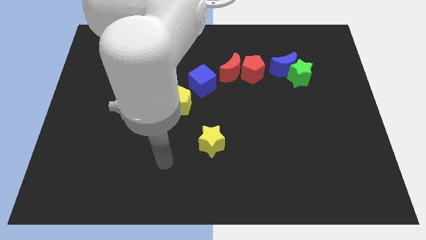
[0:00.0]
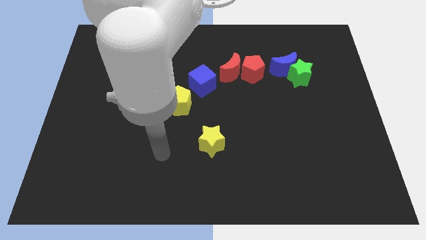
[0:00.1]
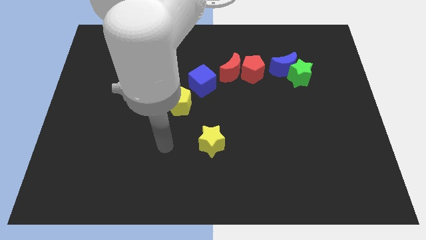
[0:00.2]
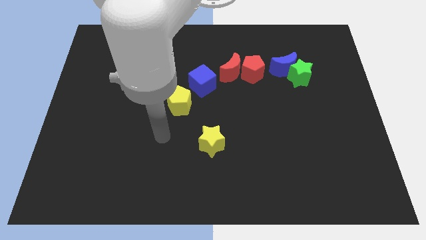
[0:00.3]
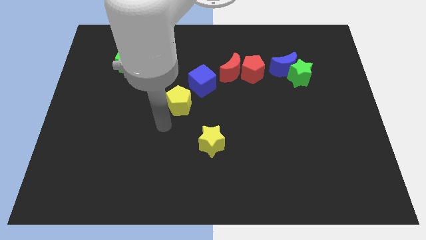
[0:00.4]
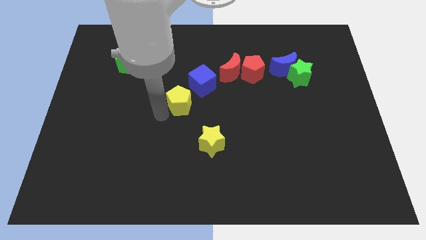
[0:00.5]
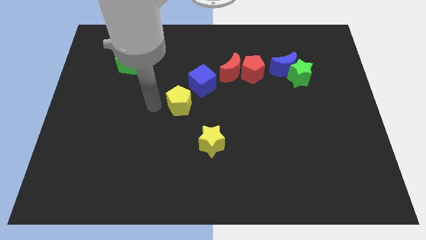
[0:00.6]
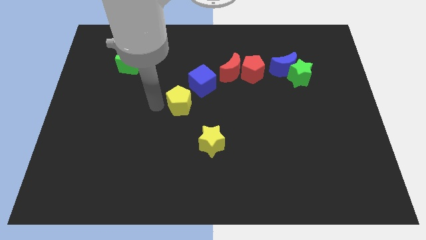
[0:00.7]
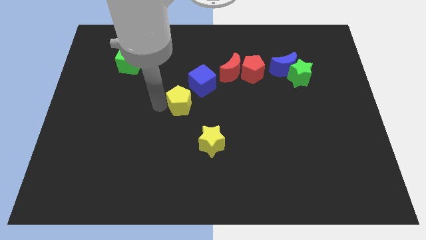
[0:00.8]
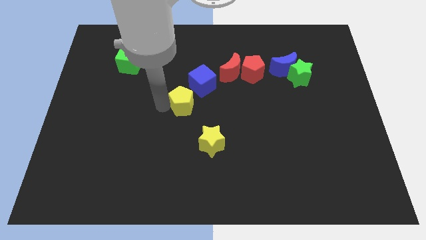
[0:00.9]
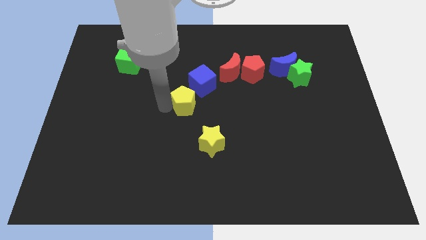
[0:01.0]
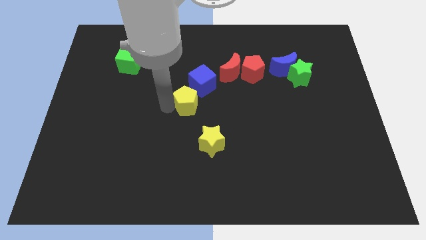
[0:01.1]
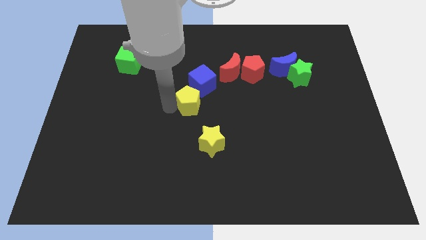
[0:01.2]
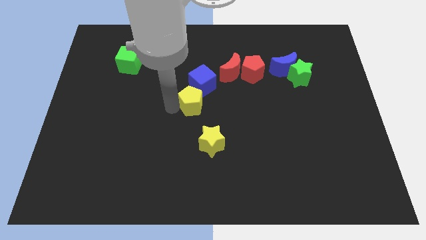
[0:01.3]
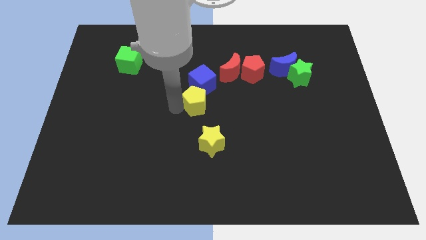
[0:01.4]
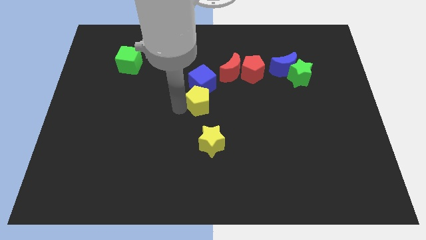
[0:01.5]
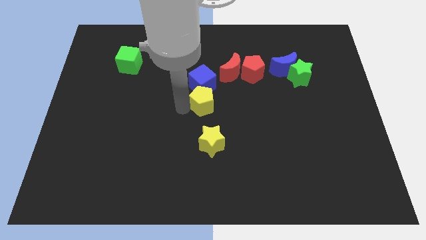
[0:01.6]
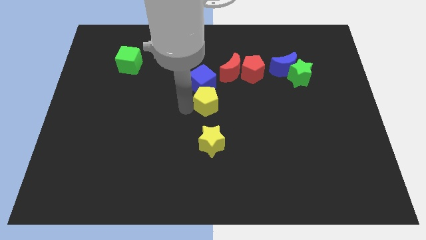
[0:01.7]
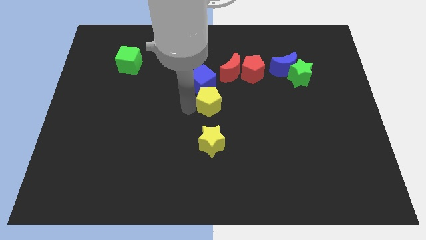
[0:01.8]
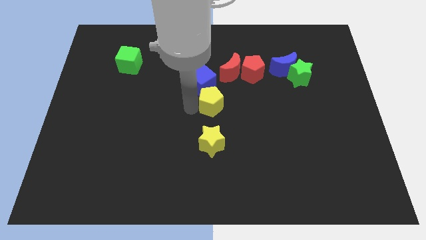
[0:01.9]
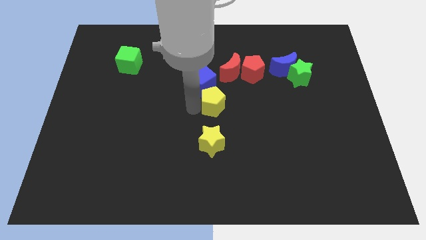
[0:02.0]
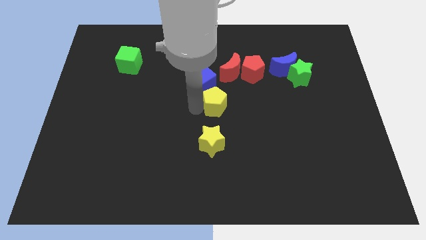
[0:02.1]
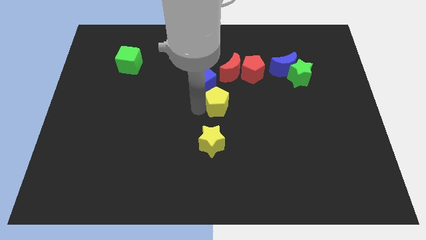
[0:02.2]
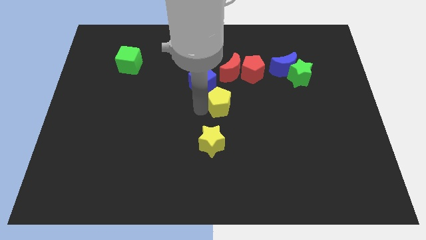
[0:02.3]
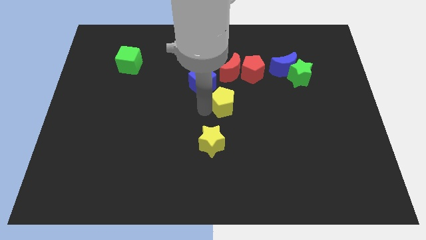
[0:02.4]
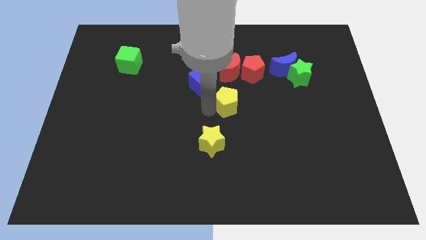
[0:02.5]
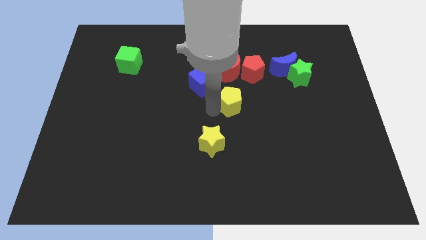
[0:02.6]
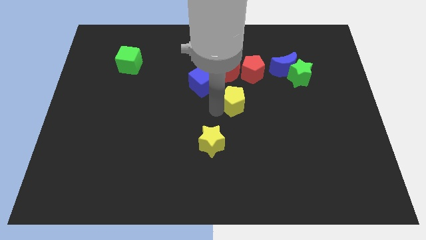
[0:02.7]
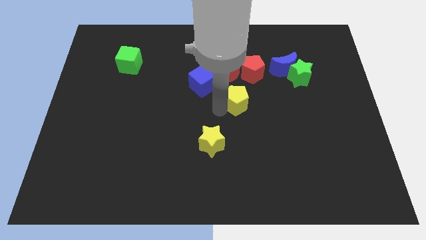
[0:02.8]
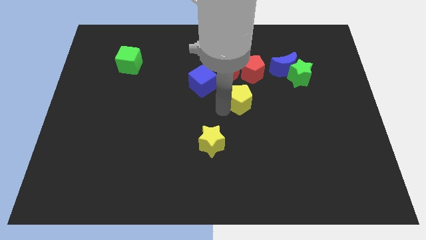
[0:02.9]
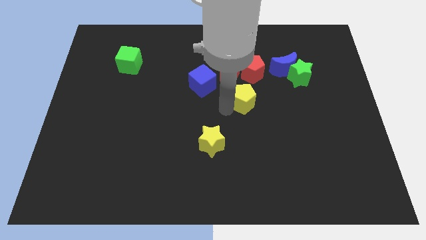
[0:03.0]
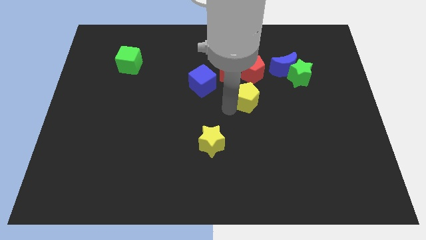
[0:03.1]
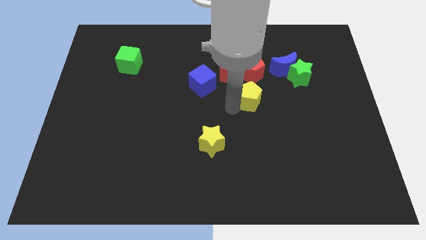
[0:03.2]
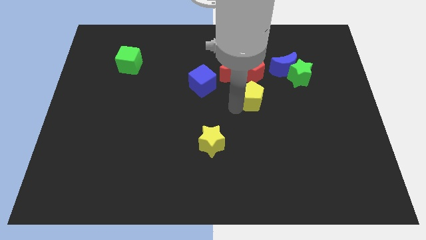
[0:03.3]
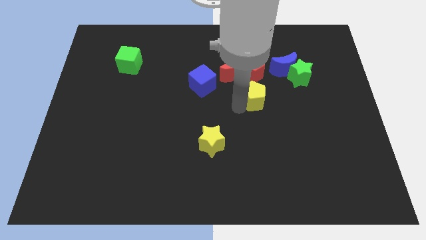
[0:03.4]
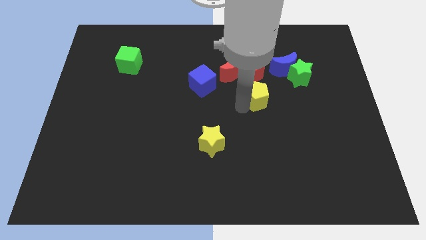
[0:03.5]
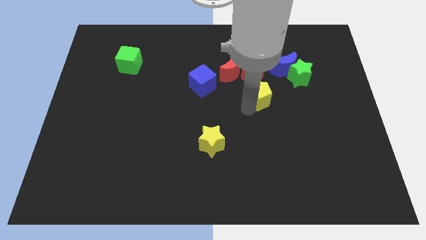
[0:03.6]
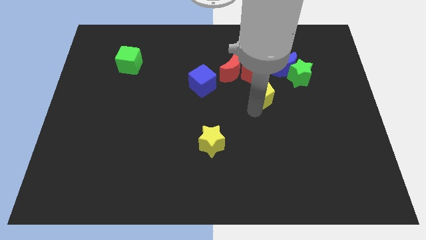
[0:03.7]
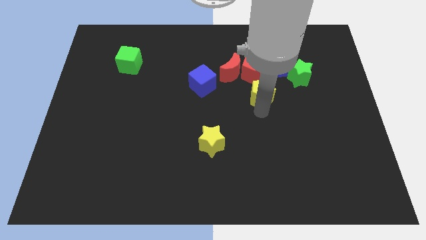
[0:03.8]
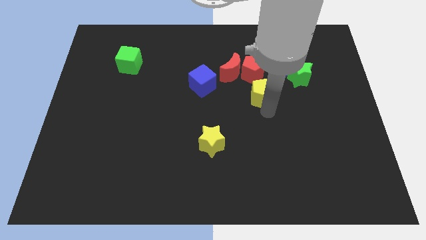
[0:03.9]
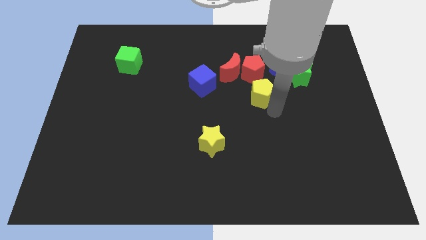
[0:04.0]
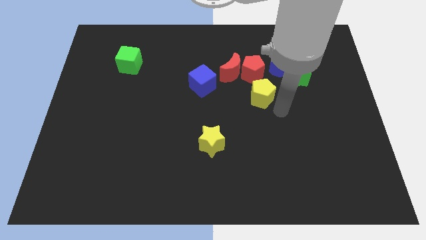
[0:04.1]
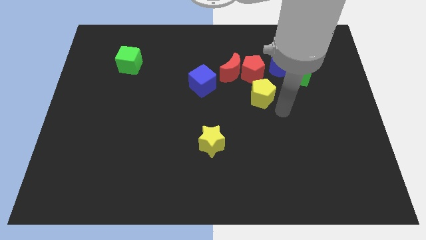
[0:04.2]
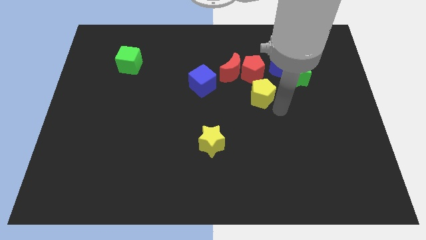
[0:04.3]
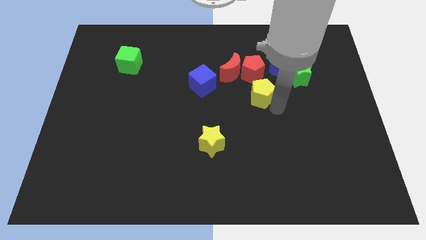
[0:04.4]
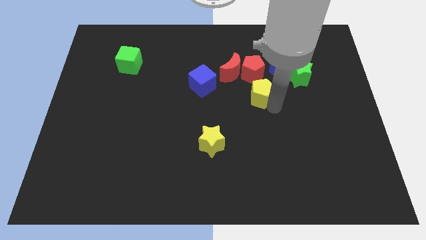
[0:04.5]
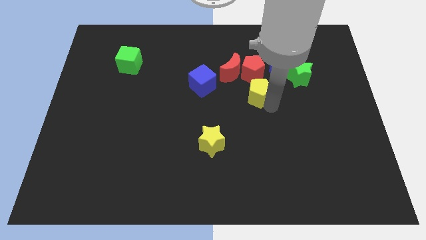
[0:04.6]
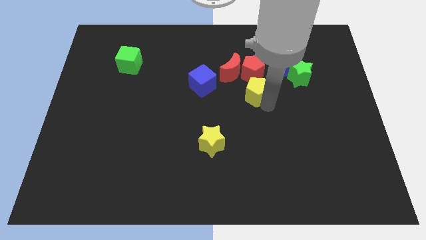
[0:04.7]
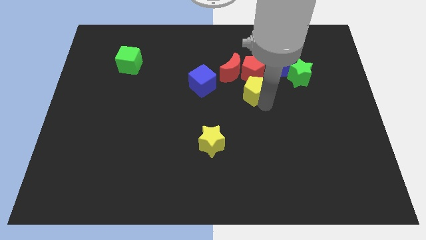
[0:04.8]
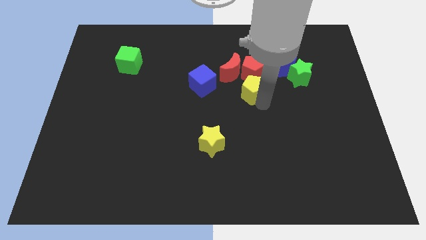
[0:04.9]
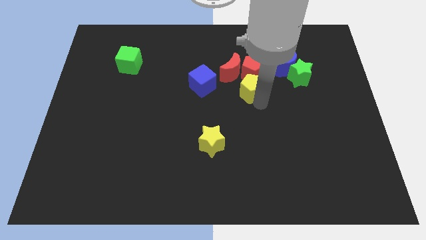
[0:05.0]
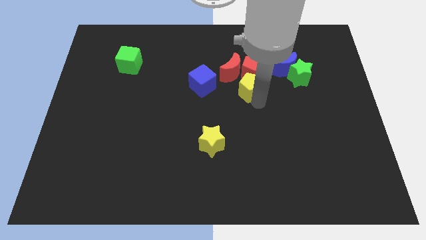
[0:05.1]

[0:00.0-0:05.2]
slide the yellow pentagon close to the red pentagon

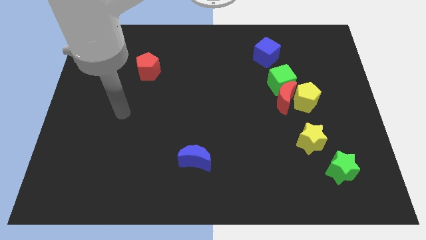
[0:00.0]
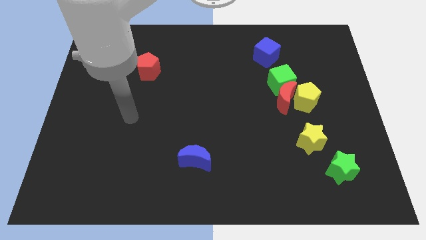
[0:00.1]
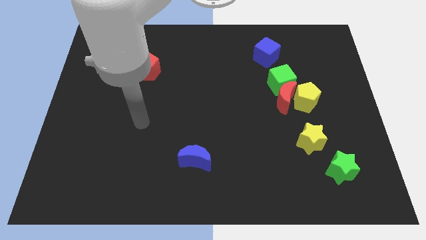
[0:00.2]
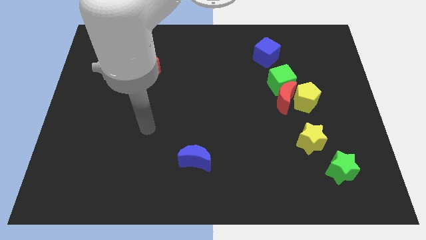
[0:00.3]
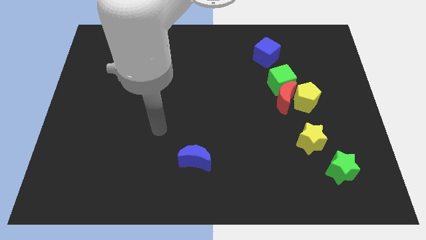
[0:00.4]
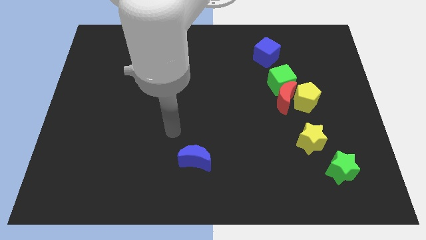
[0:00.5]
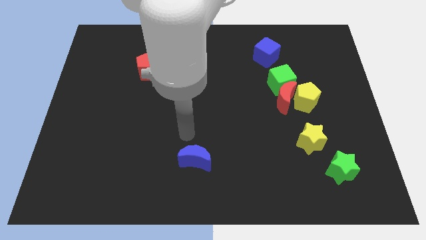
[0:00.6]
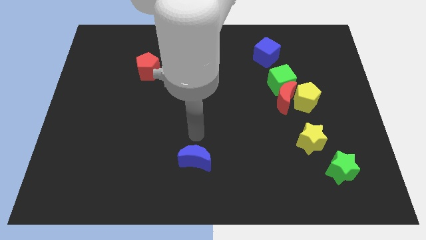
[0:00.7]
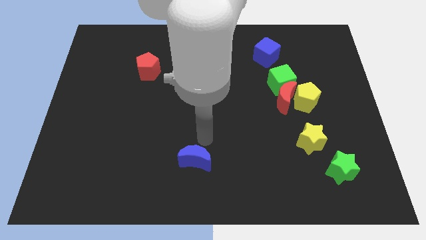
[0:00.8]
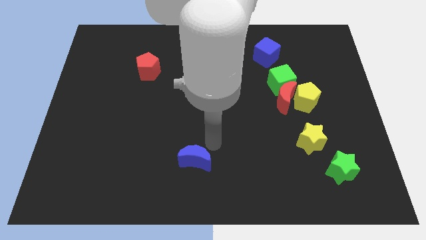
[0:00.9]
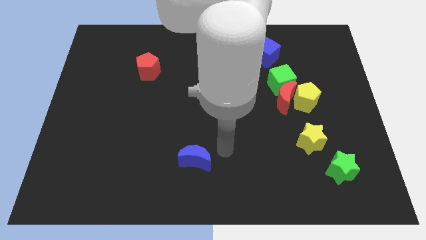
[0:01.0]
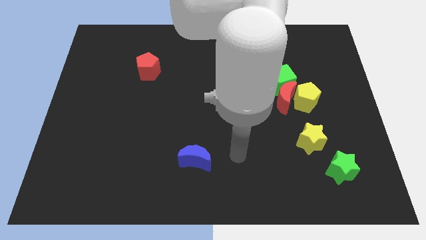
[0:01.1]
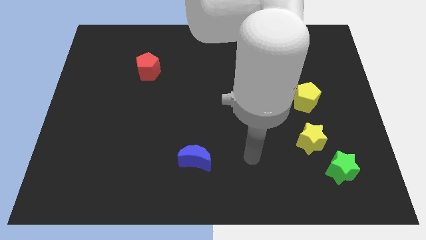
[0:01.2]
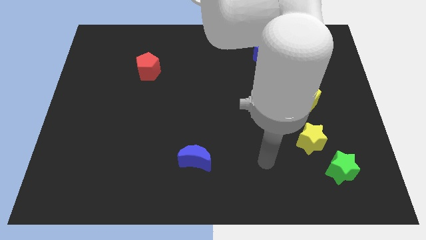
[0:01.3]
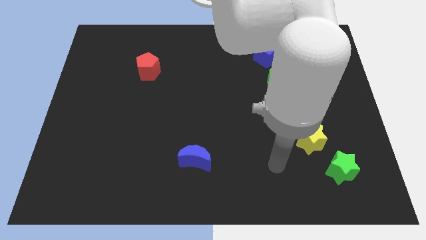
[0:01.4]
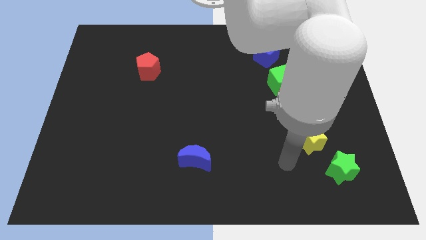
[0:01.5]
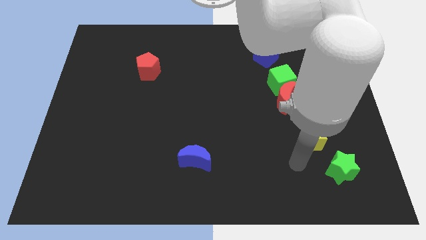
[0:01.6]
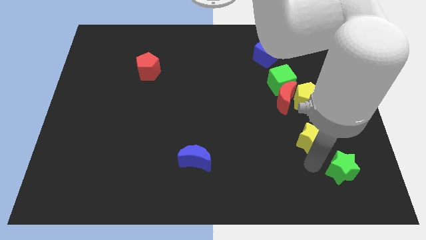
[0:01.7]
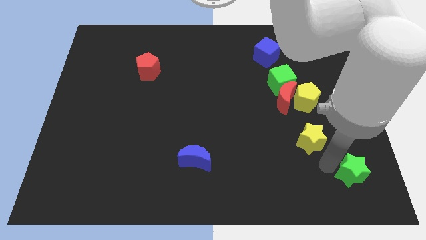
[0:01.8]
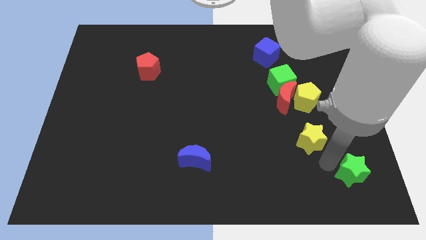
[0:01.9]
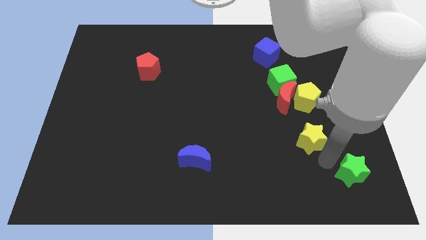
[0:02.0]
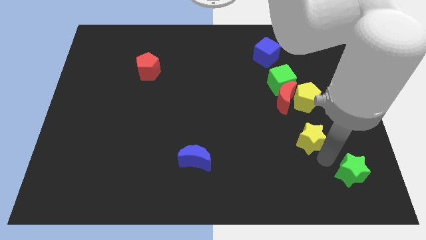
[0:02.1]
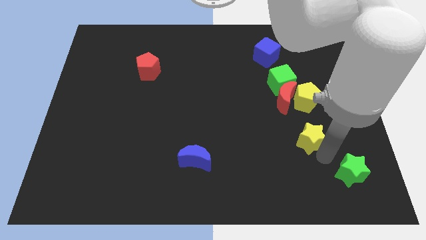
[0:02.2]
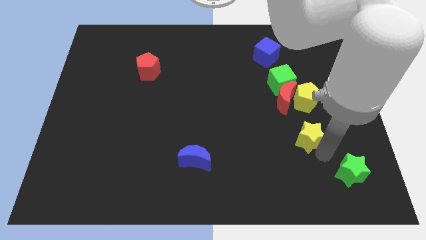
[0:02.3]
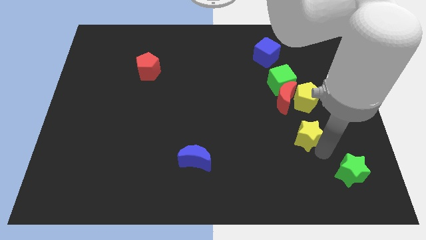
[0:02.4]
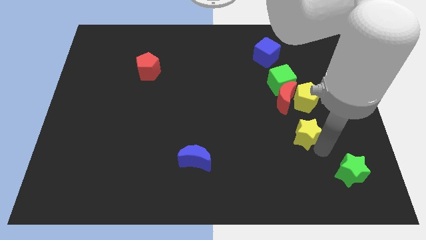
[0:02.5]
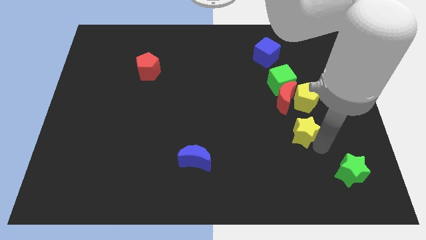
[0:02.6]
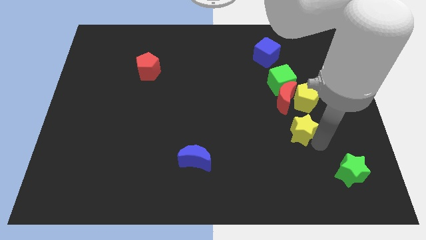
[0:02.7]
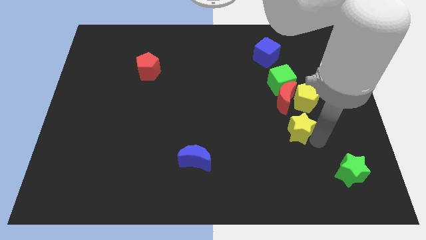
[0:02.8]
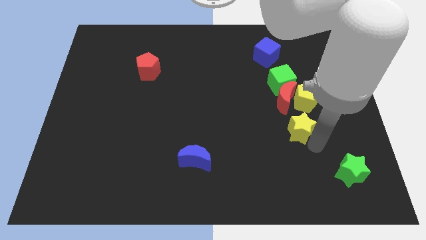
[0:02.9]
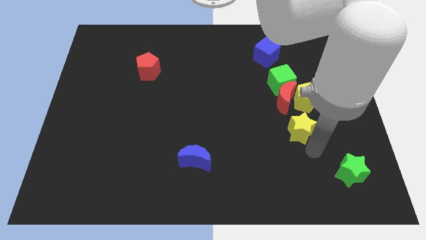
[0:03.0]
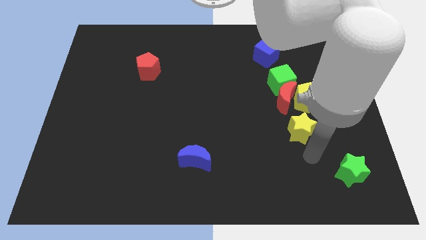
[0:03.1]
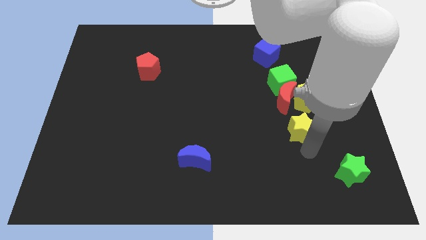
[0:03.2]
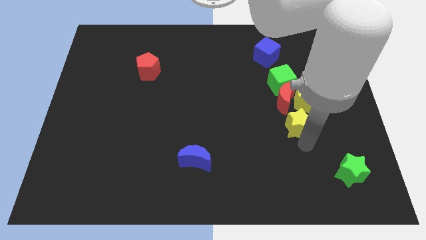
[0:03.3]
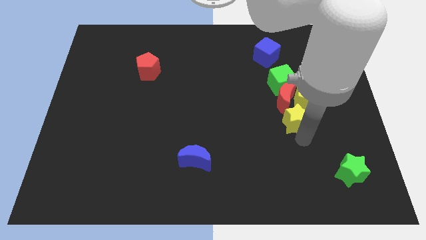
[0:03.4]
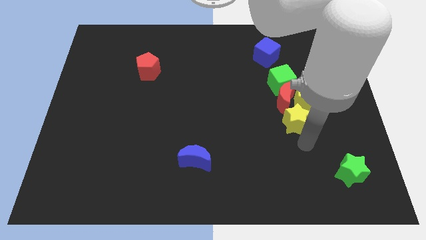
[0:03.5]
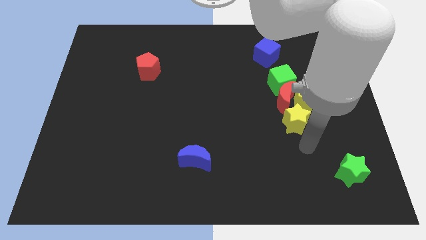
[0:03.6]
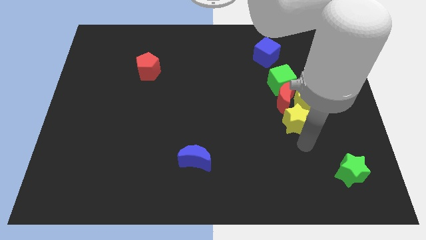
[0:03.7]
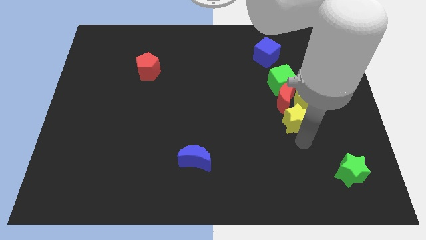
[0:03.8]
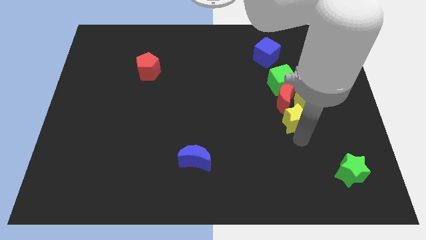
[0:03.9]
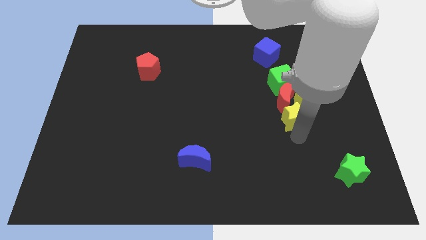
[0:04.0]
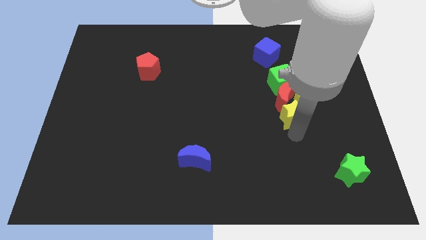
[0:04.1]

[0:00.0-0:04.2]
push the yellow star to the red moon
